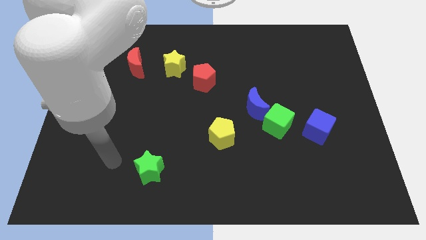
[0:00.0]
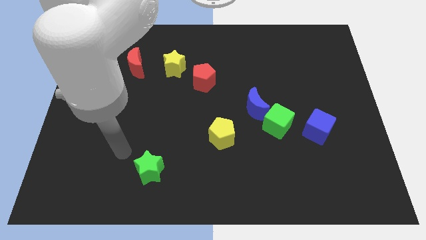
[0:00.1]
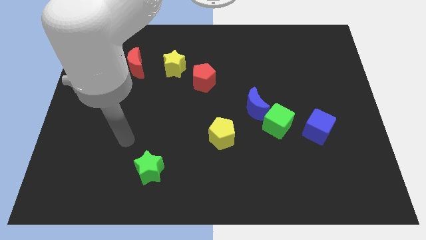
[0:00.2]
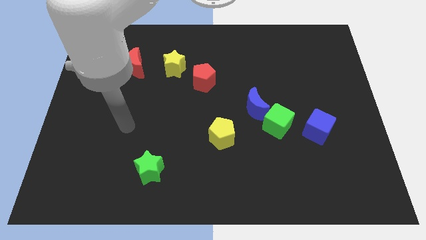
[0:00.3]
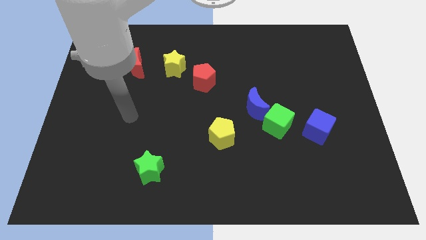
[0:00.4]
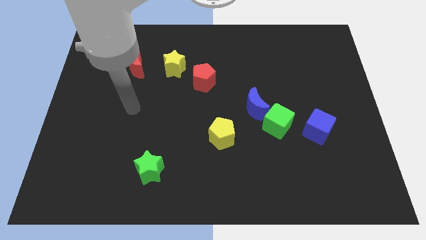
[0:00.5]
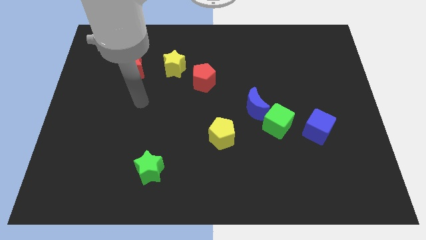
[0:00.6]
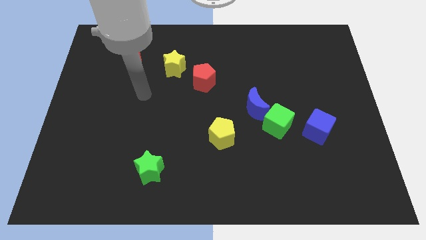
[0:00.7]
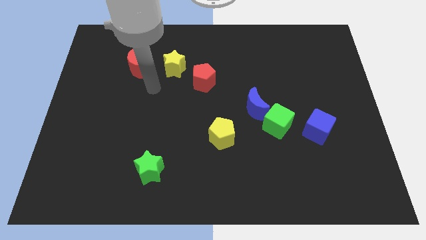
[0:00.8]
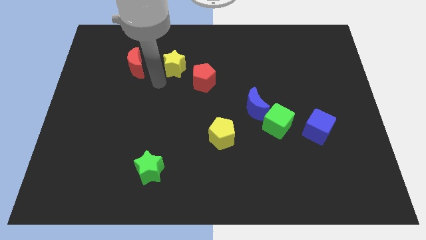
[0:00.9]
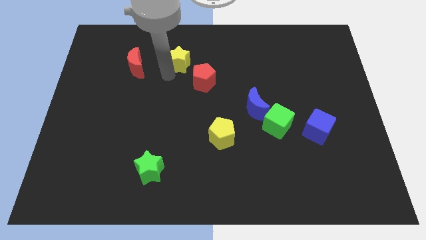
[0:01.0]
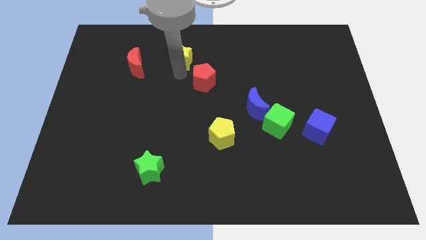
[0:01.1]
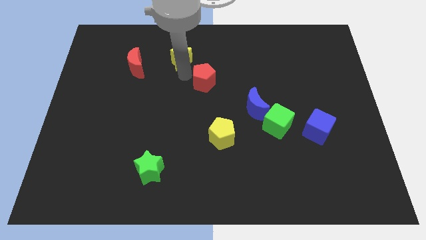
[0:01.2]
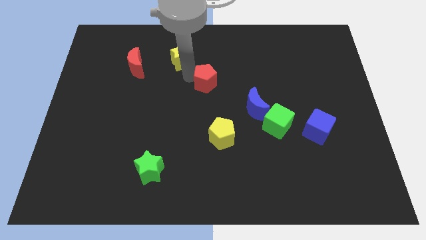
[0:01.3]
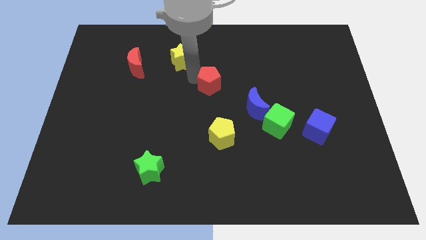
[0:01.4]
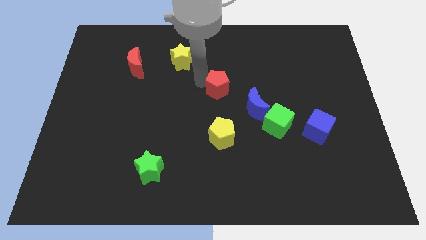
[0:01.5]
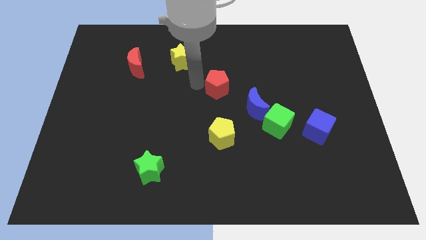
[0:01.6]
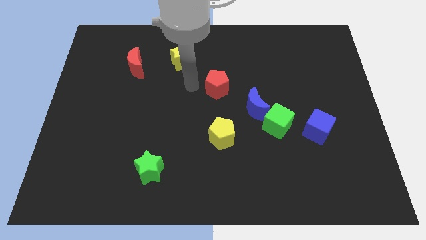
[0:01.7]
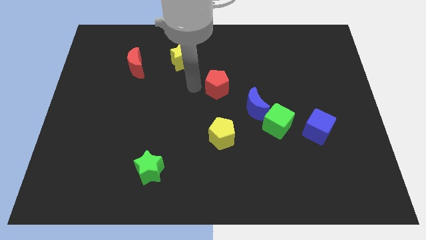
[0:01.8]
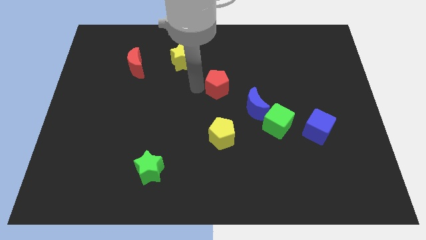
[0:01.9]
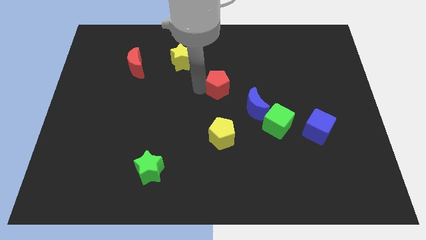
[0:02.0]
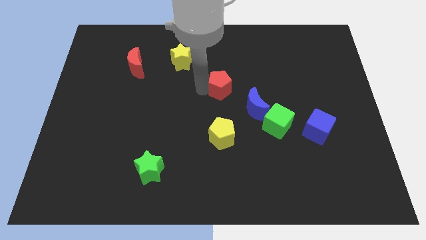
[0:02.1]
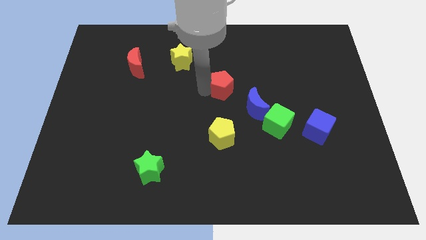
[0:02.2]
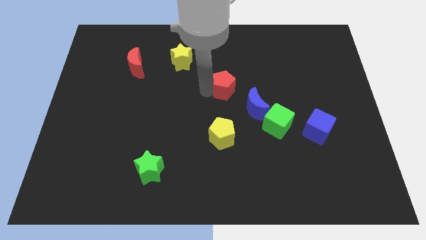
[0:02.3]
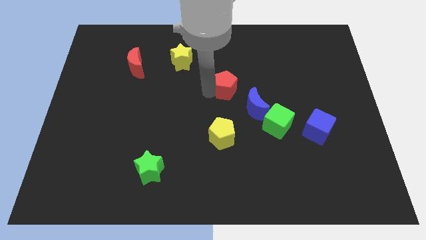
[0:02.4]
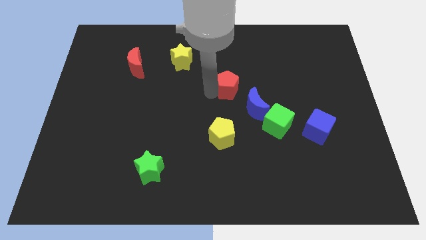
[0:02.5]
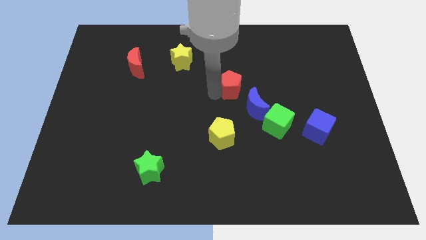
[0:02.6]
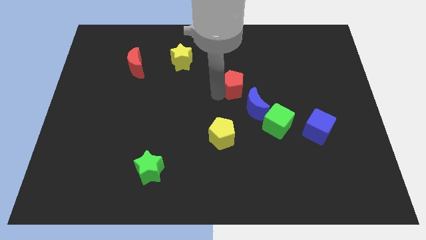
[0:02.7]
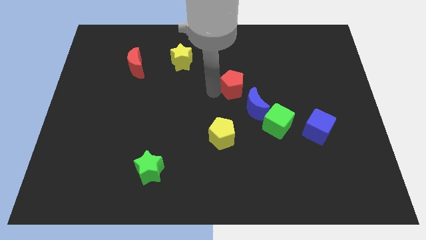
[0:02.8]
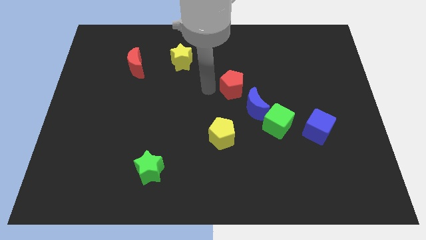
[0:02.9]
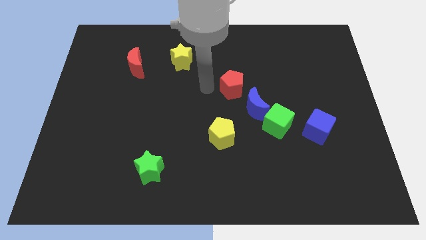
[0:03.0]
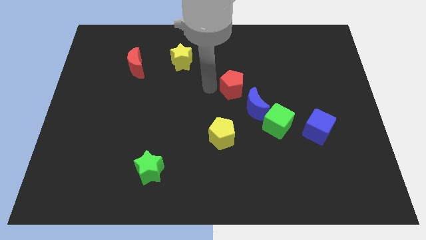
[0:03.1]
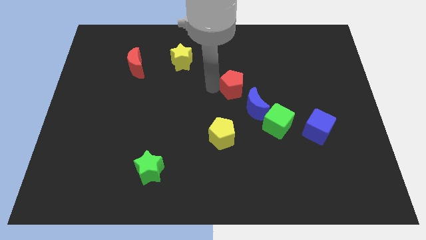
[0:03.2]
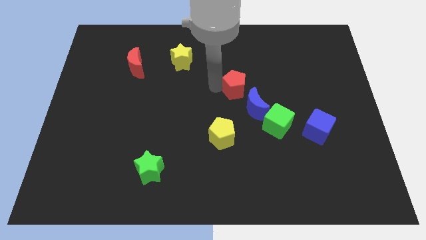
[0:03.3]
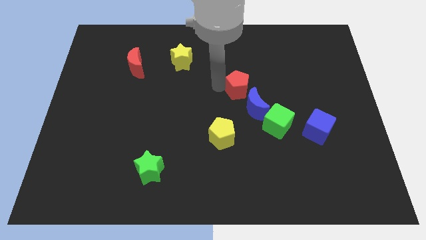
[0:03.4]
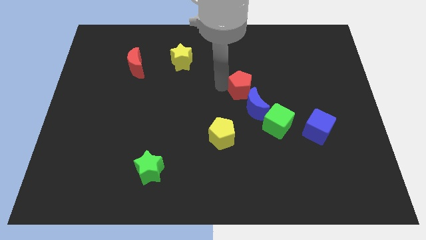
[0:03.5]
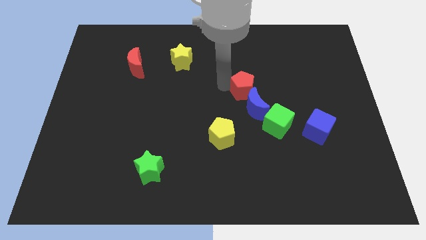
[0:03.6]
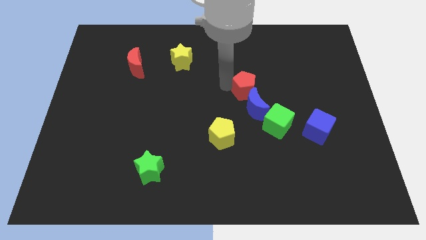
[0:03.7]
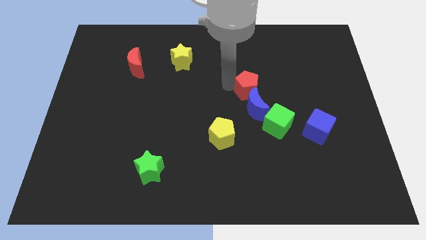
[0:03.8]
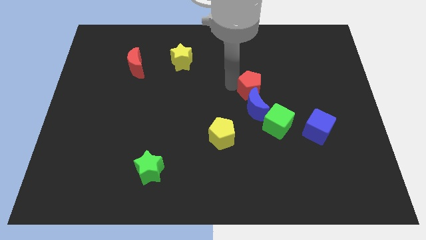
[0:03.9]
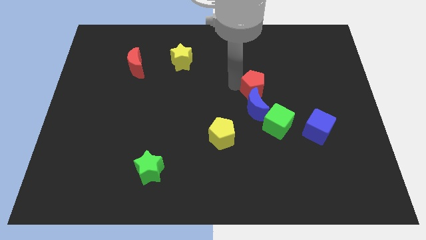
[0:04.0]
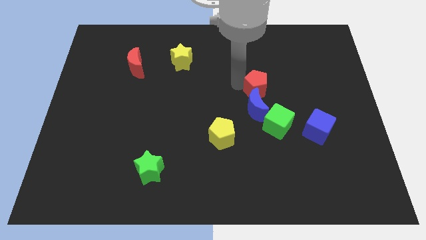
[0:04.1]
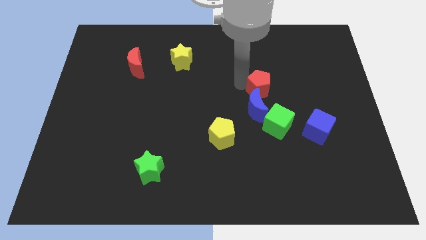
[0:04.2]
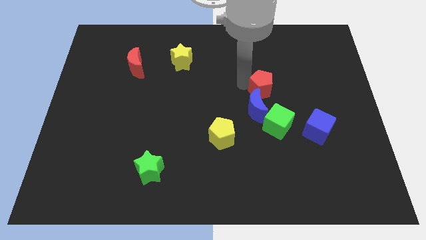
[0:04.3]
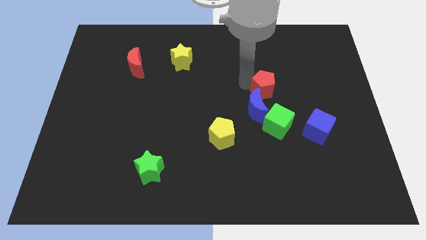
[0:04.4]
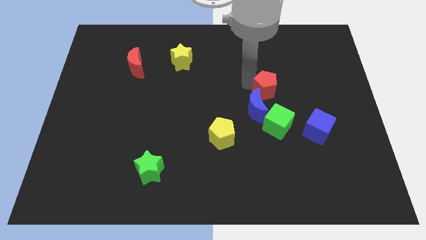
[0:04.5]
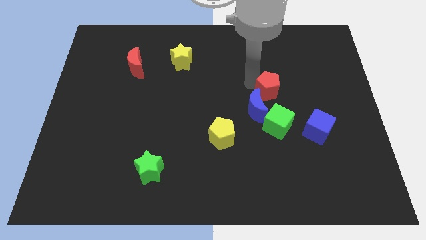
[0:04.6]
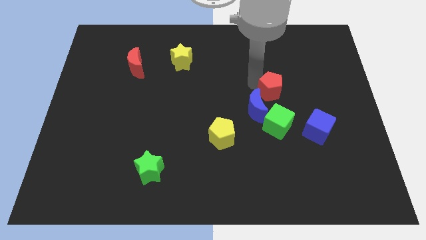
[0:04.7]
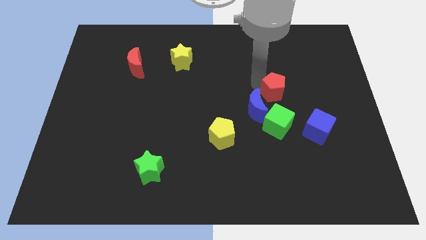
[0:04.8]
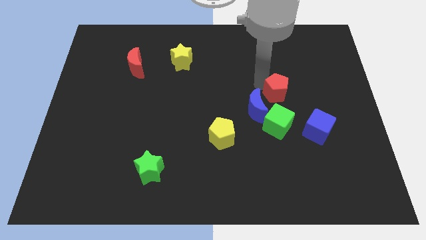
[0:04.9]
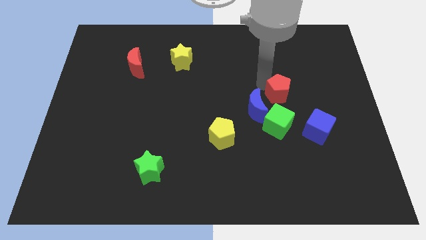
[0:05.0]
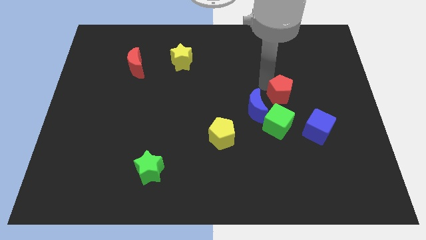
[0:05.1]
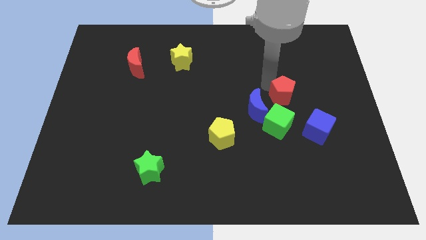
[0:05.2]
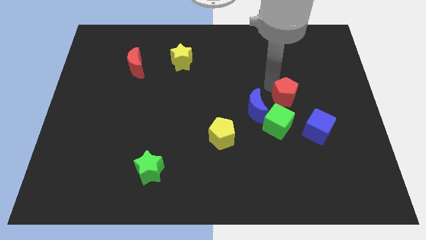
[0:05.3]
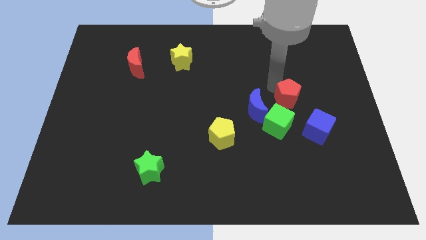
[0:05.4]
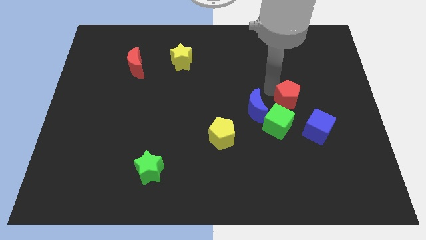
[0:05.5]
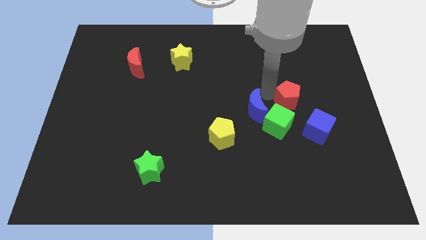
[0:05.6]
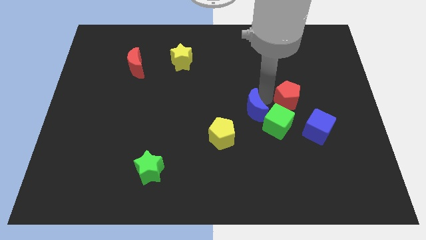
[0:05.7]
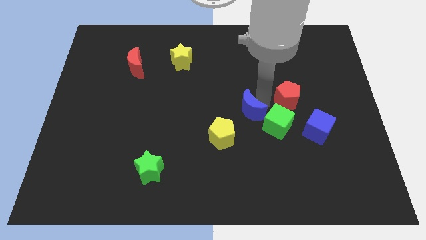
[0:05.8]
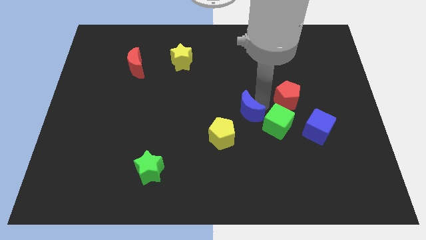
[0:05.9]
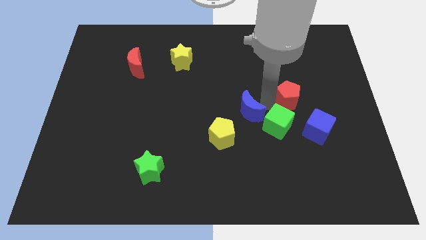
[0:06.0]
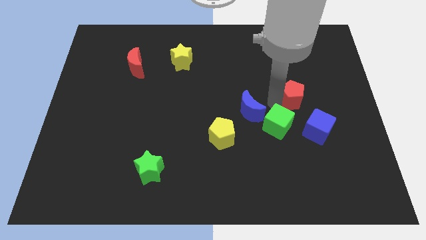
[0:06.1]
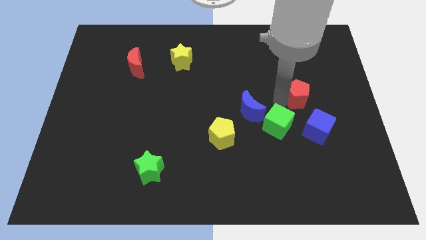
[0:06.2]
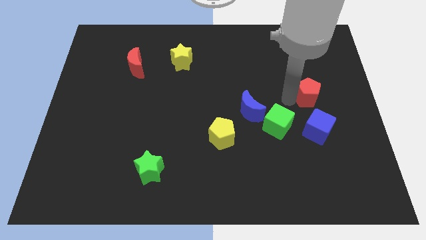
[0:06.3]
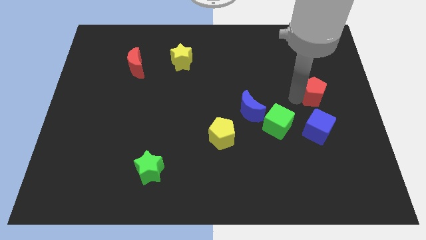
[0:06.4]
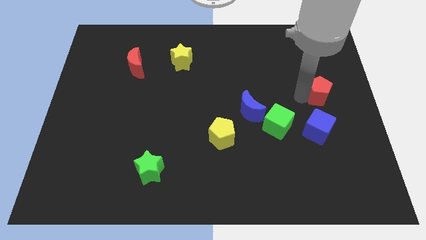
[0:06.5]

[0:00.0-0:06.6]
push the red pentagon to the right side of the board

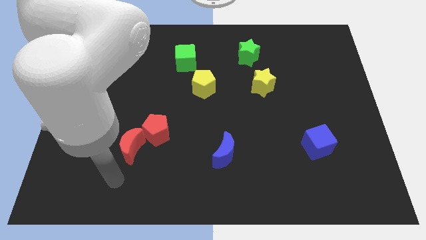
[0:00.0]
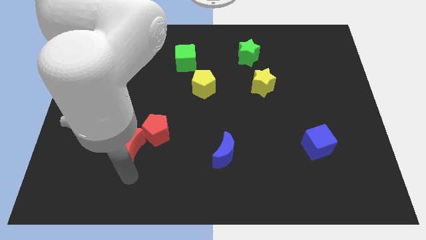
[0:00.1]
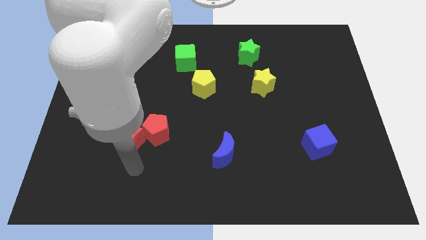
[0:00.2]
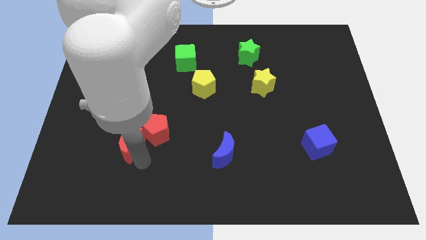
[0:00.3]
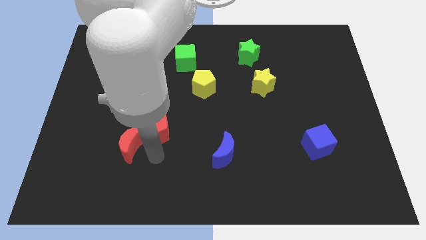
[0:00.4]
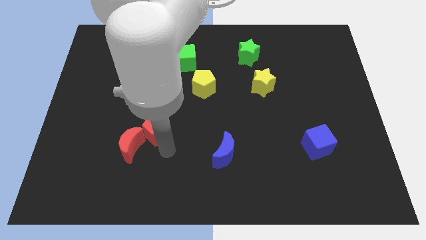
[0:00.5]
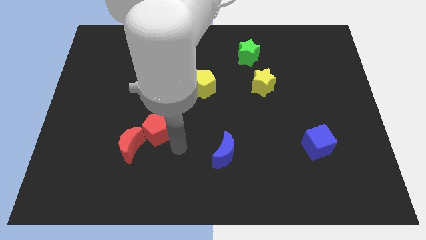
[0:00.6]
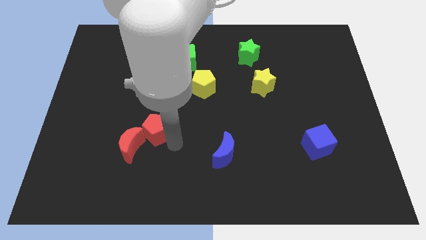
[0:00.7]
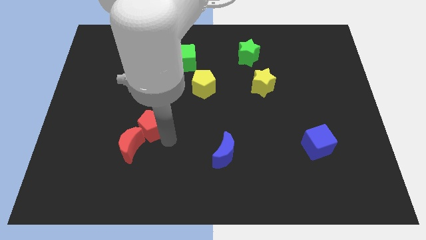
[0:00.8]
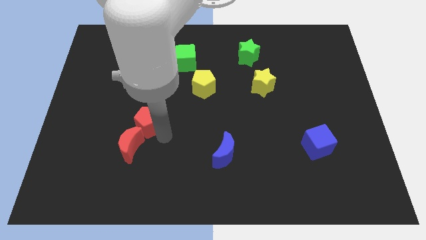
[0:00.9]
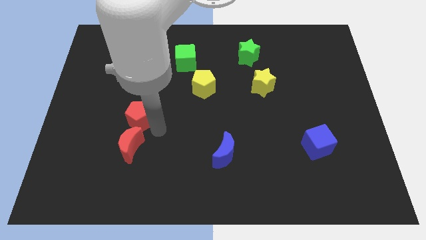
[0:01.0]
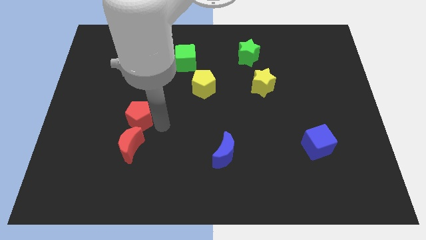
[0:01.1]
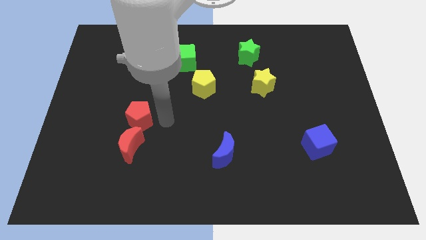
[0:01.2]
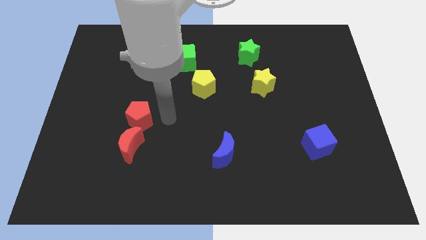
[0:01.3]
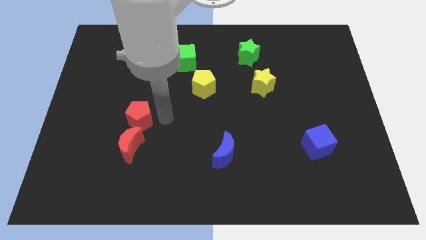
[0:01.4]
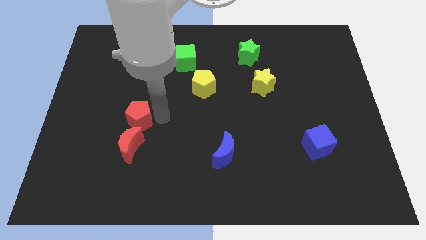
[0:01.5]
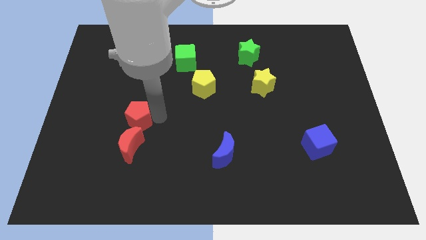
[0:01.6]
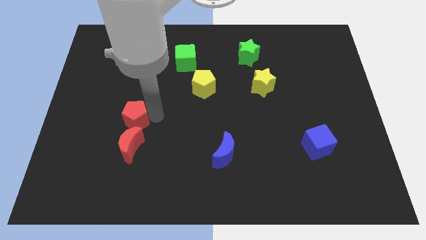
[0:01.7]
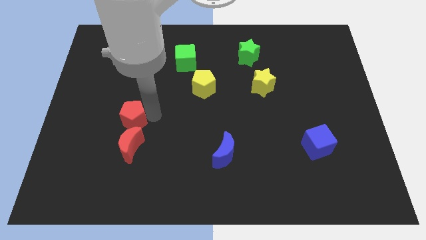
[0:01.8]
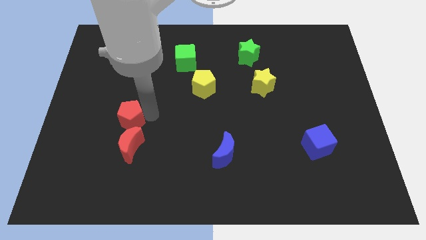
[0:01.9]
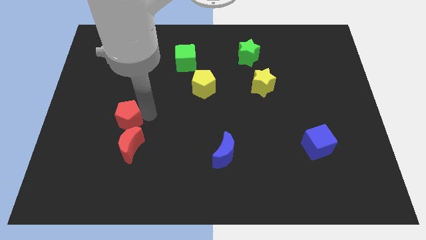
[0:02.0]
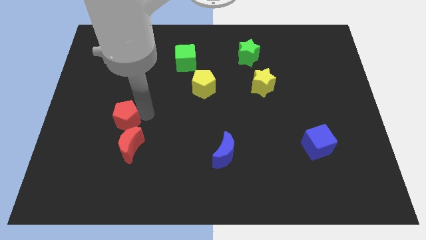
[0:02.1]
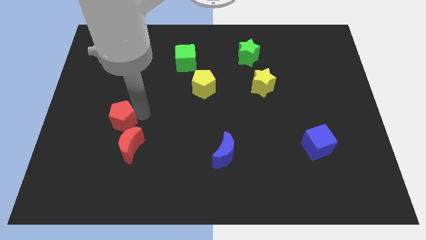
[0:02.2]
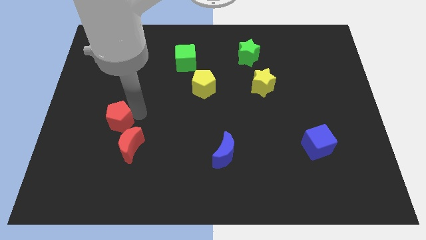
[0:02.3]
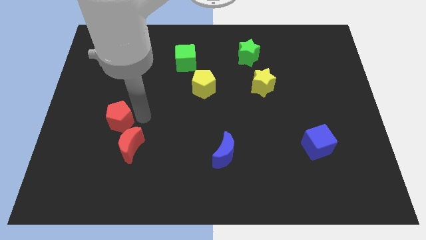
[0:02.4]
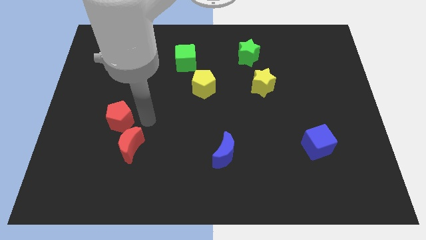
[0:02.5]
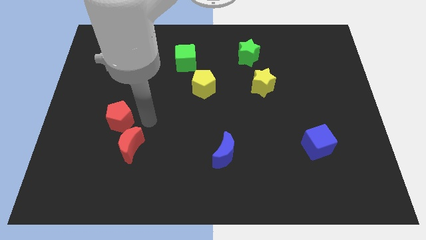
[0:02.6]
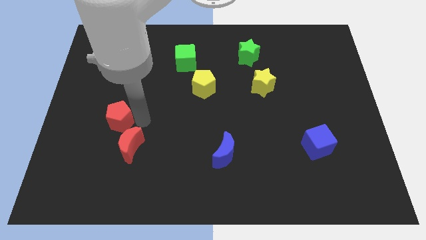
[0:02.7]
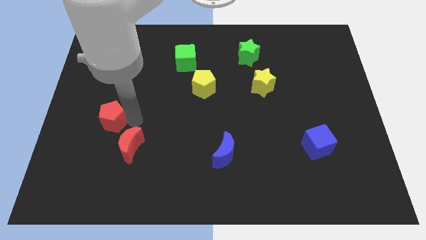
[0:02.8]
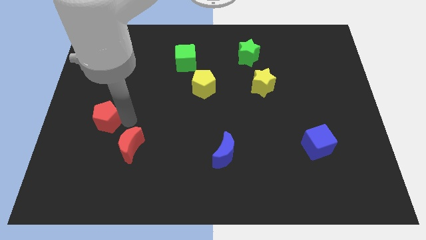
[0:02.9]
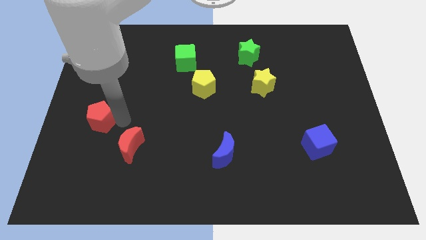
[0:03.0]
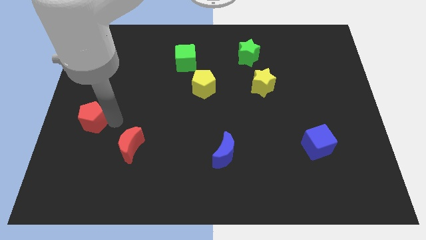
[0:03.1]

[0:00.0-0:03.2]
push the red pentagon to the center left
